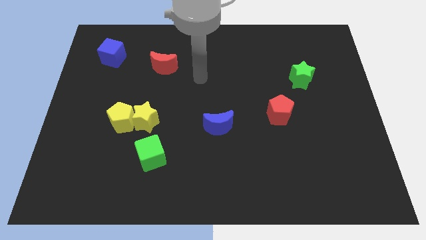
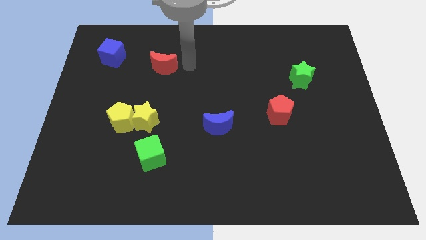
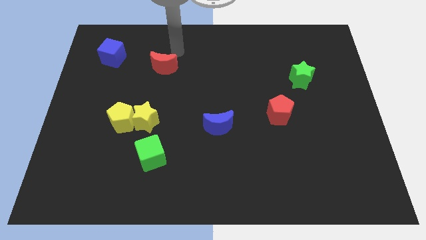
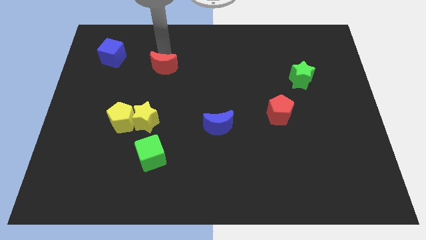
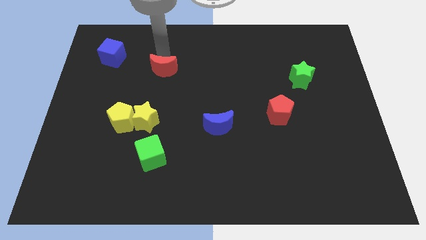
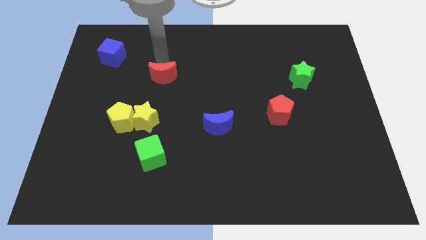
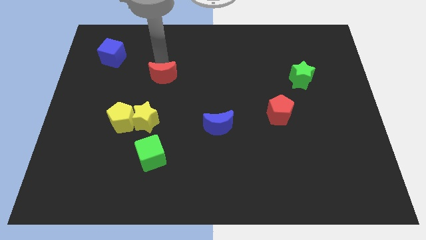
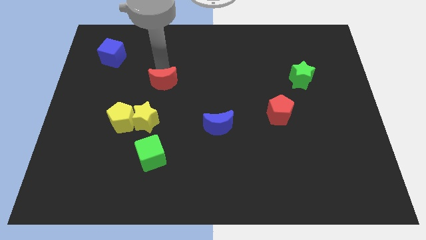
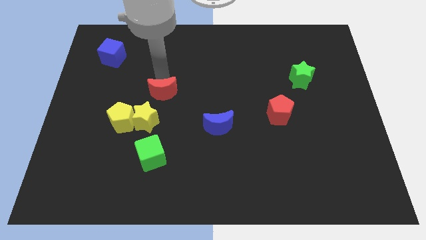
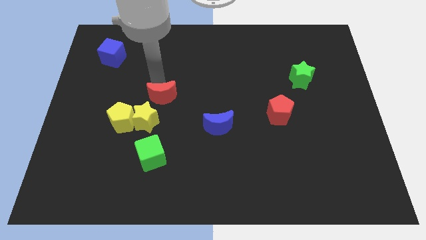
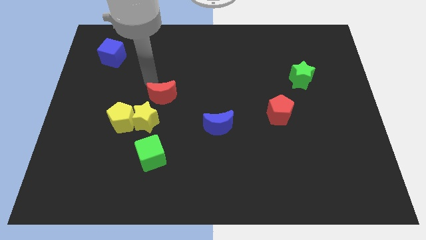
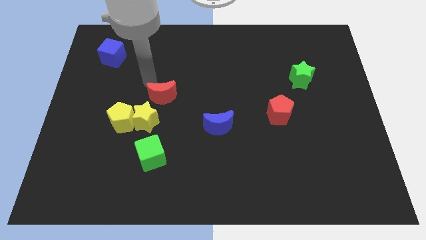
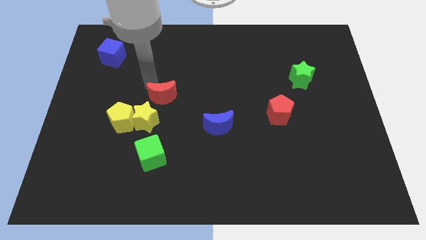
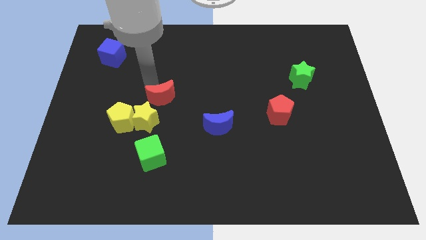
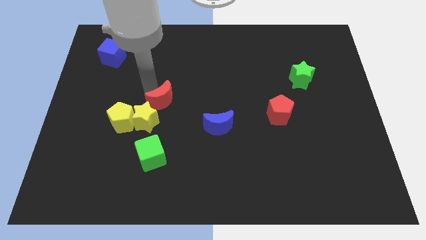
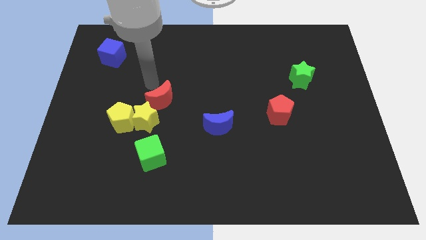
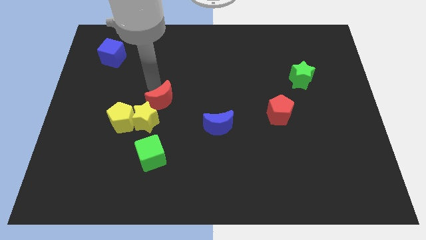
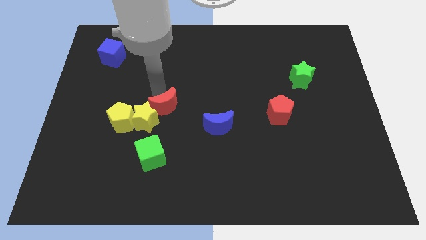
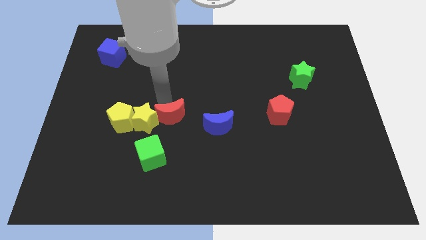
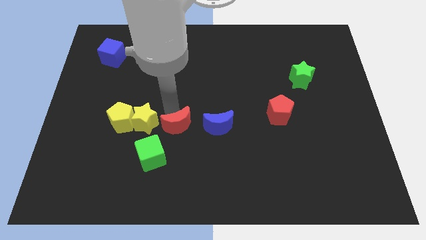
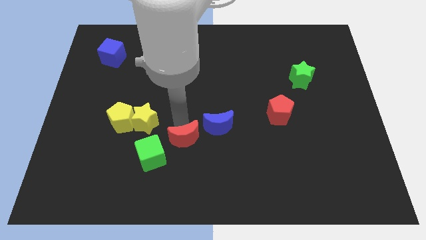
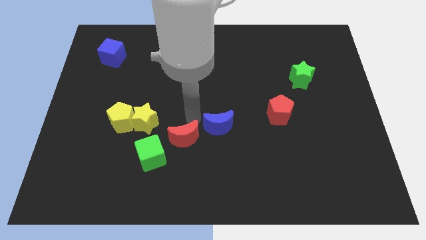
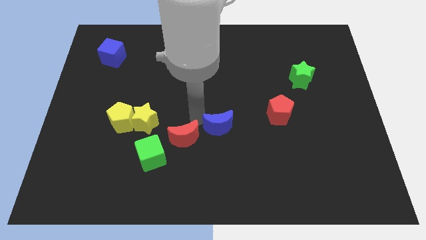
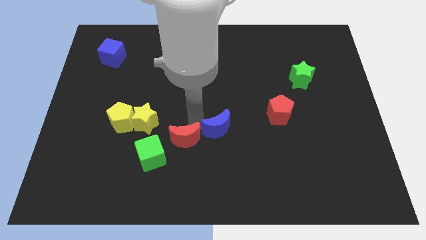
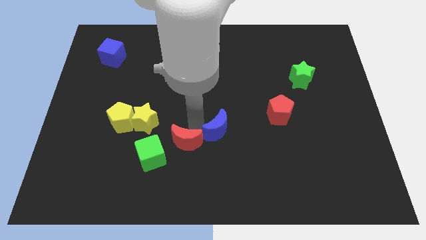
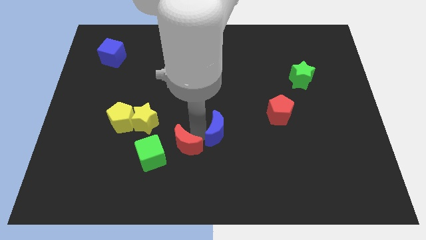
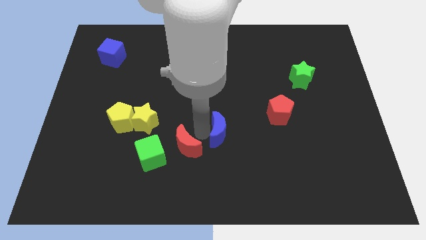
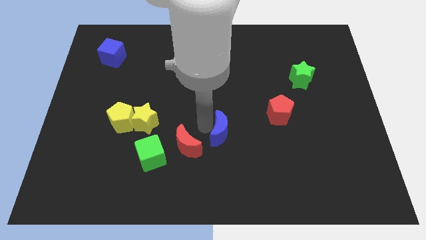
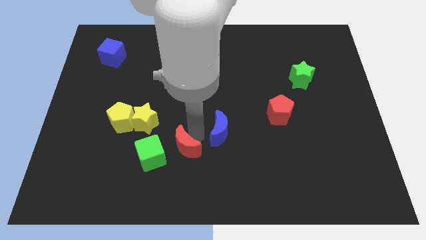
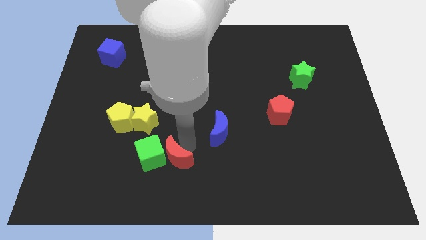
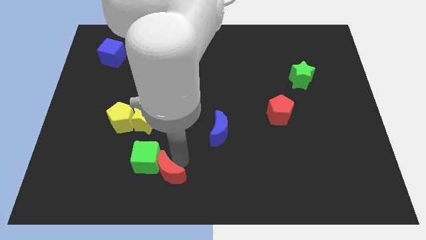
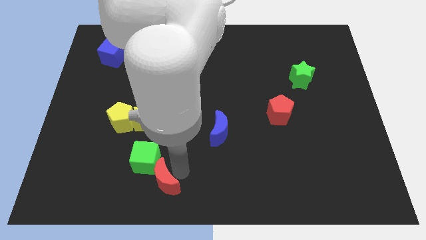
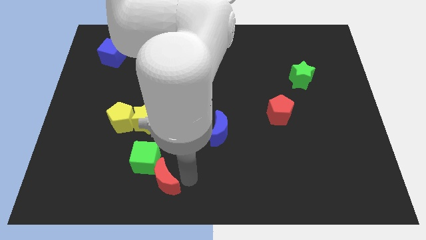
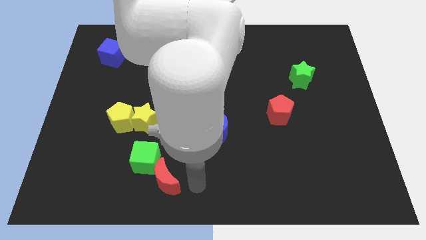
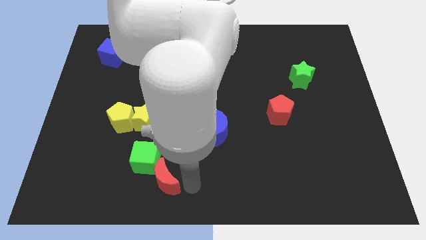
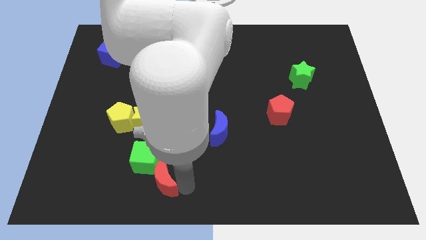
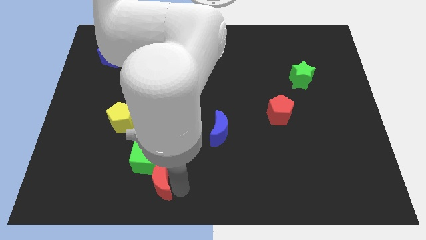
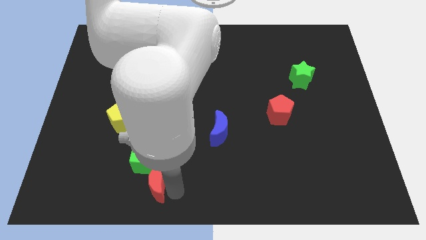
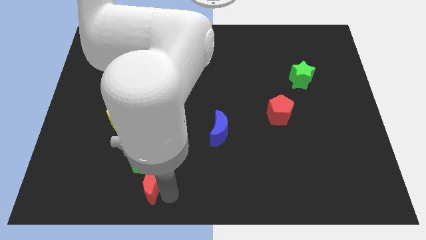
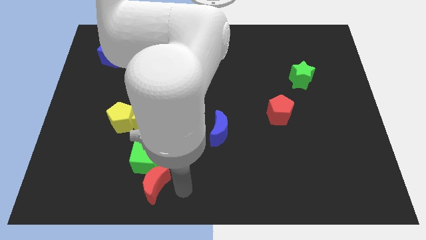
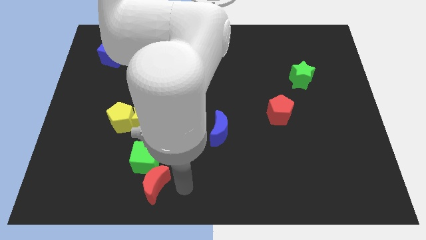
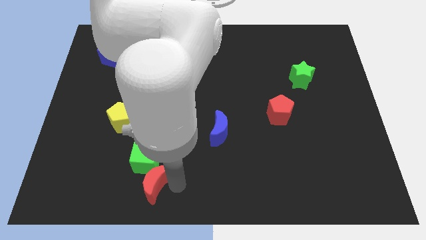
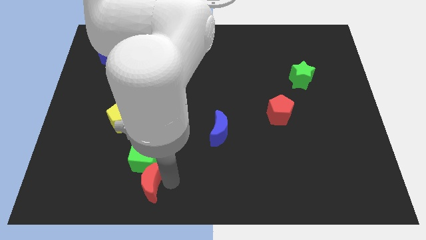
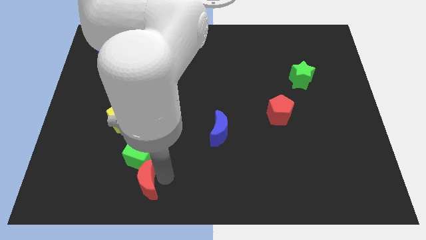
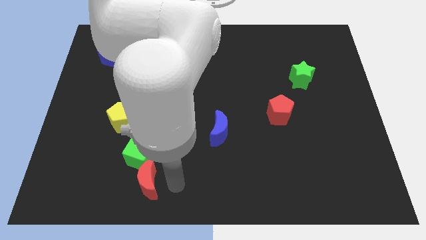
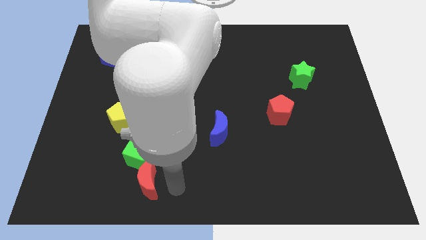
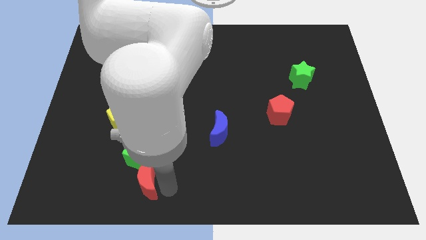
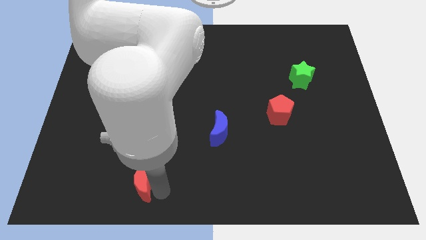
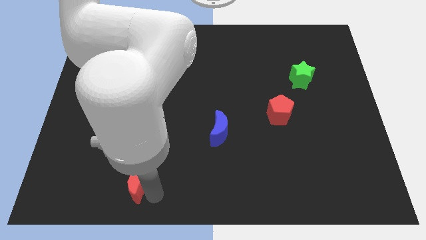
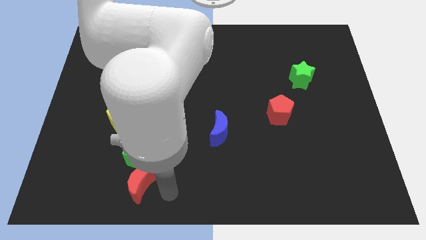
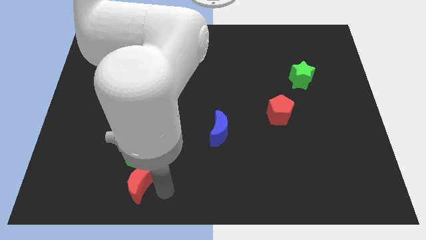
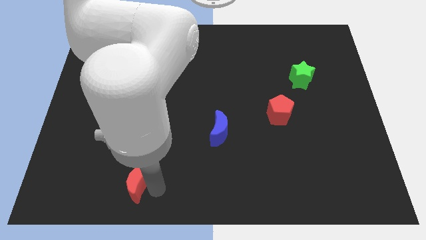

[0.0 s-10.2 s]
push the red moon diagonally down and to the left of the green cube

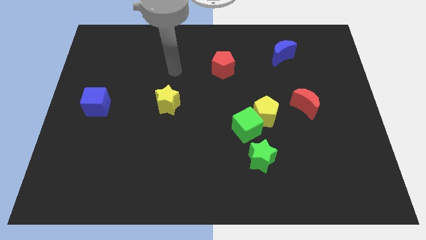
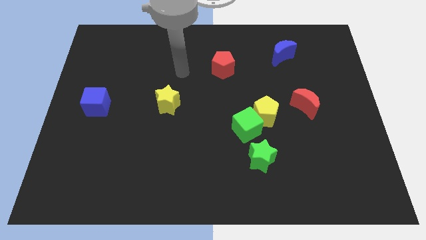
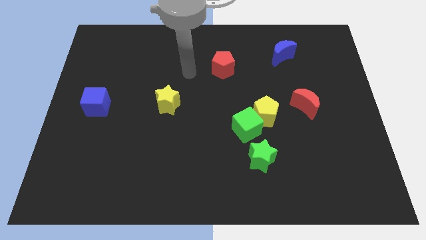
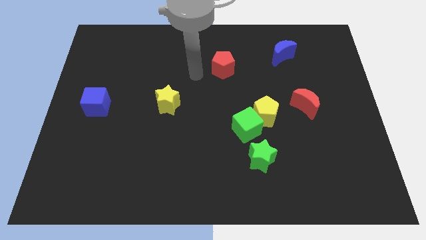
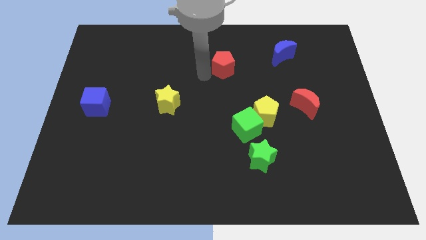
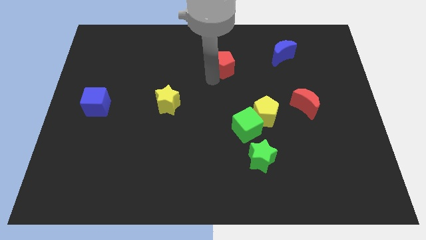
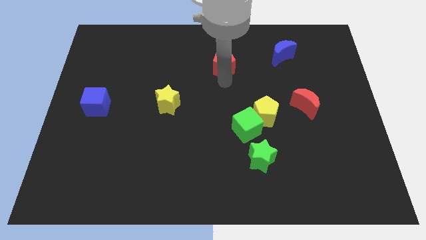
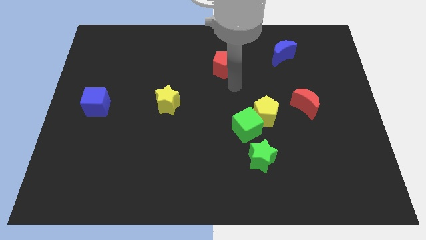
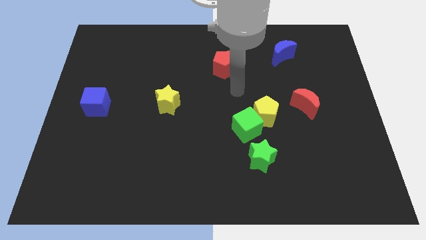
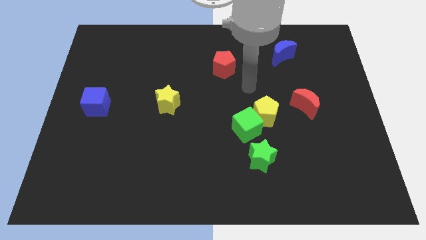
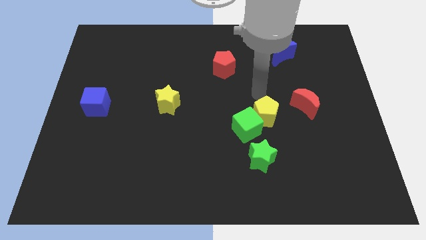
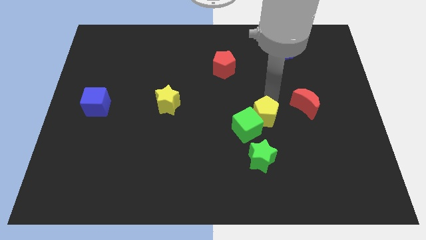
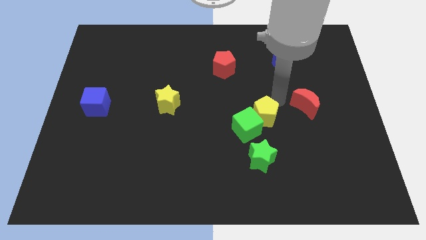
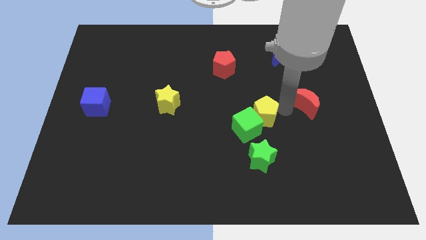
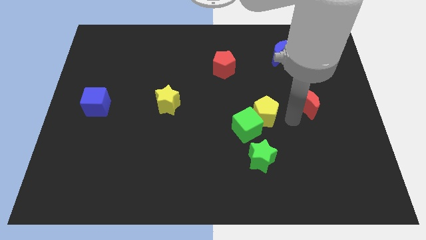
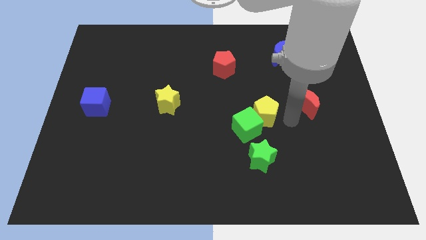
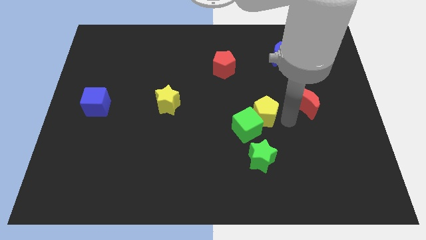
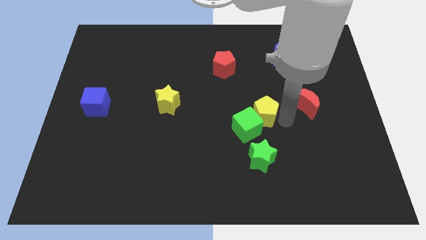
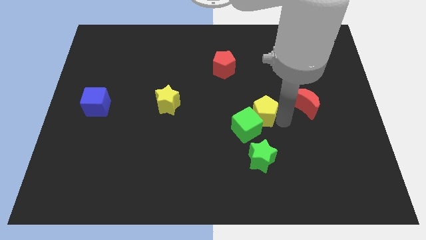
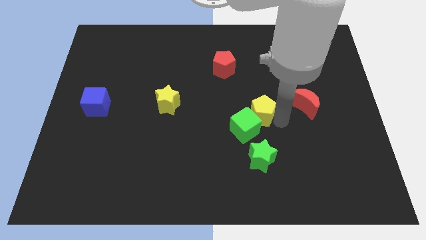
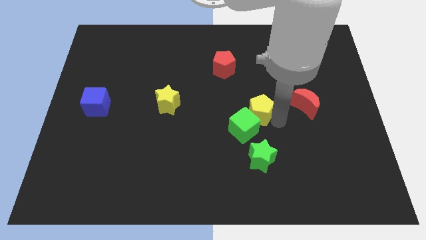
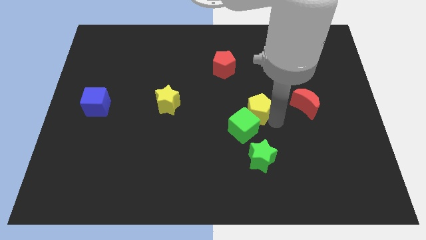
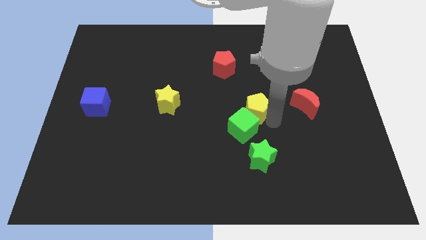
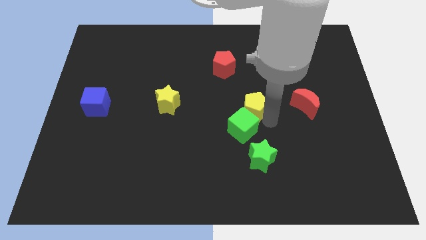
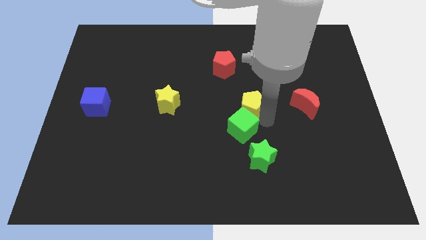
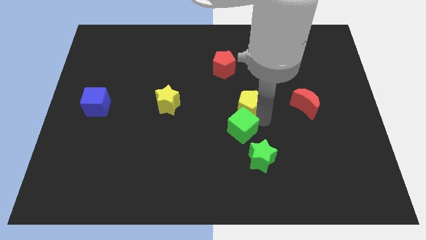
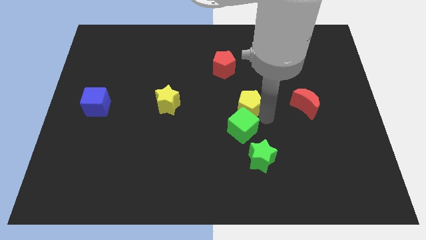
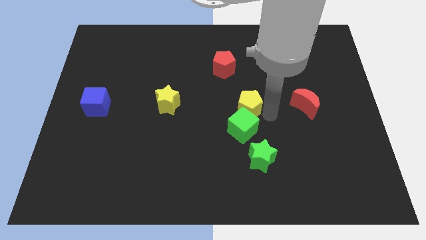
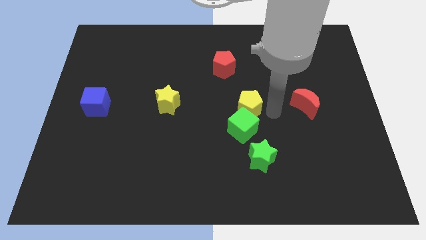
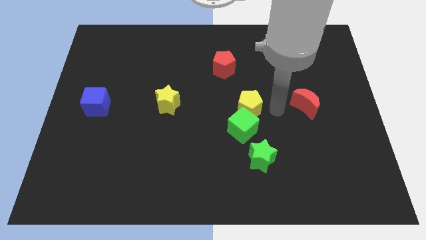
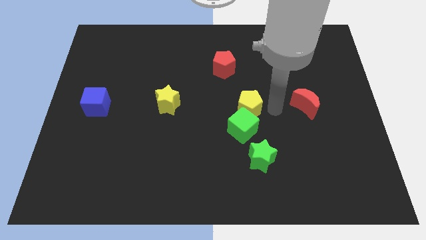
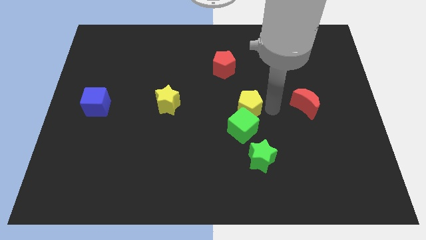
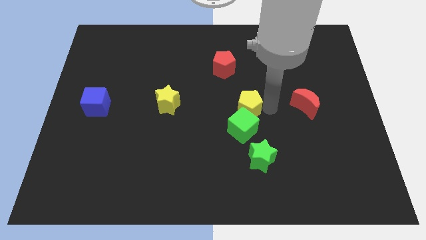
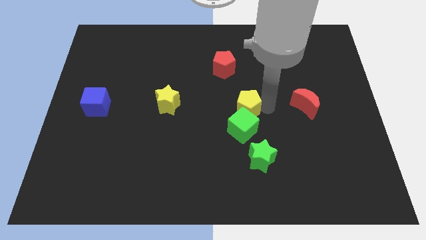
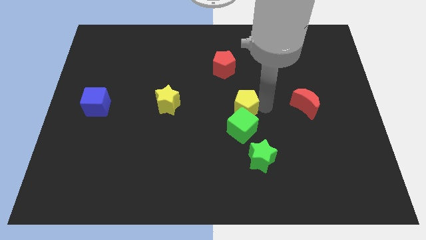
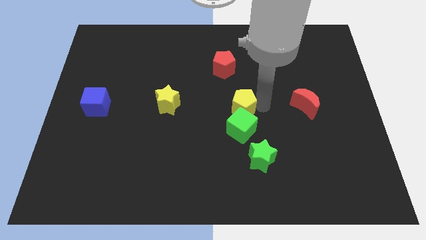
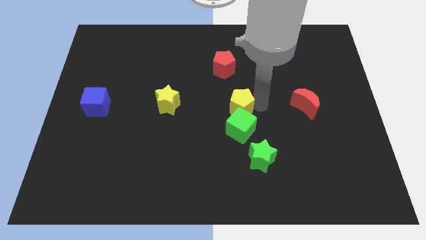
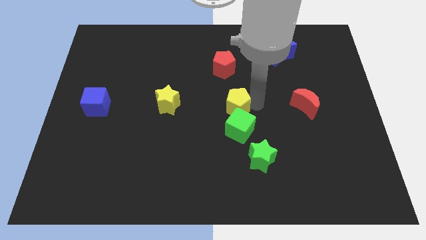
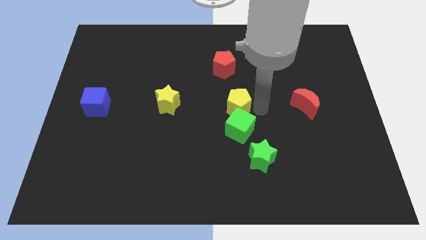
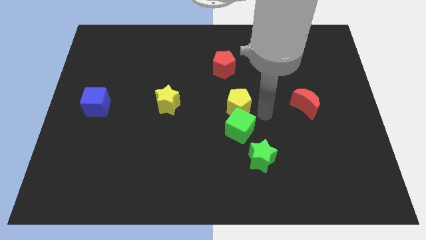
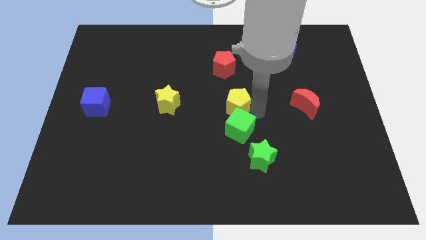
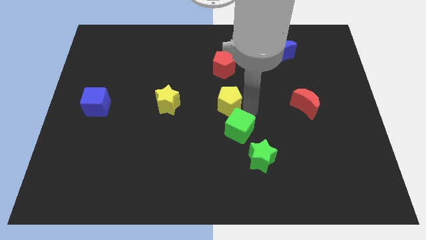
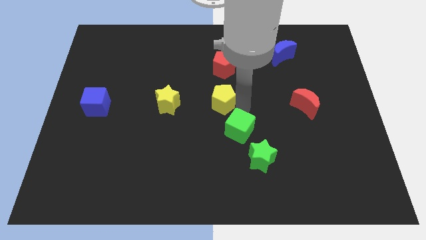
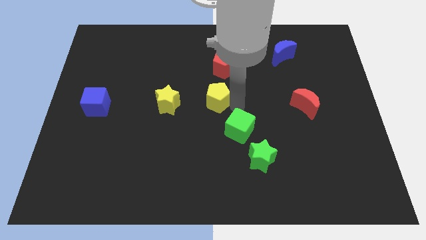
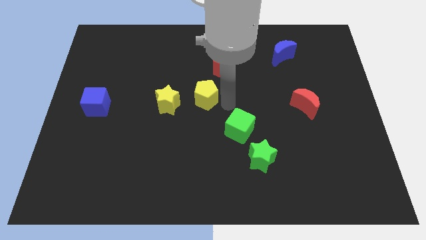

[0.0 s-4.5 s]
put the yellow pentagon to the top right side of the yellow star
